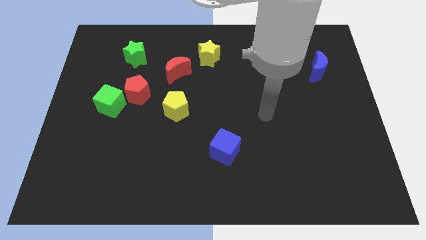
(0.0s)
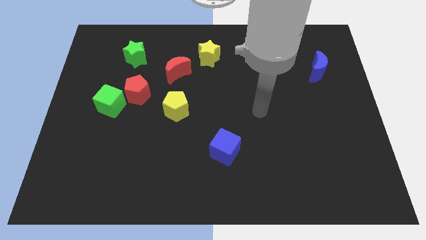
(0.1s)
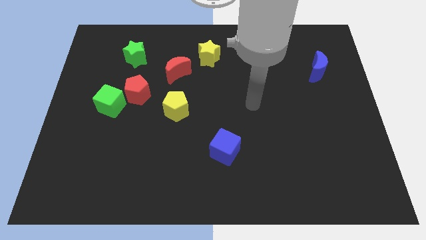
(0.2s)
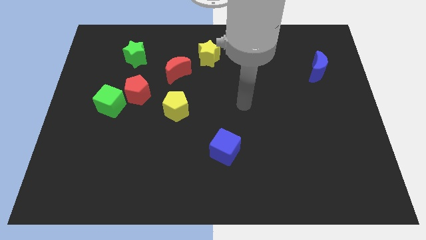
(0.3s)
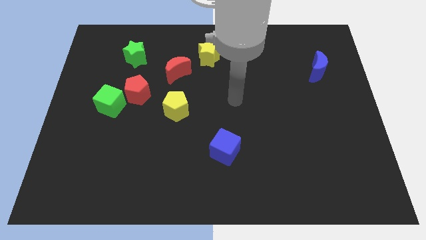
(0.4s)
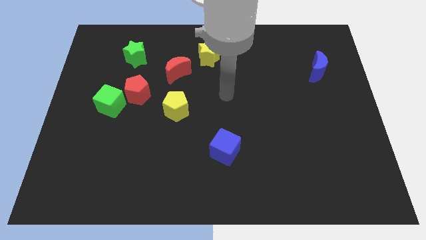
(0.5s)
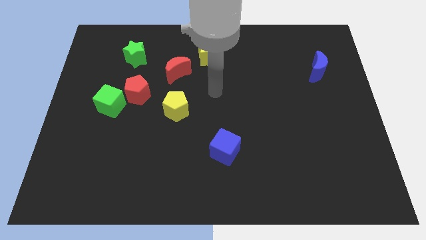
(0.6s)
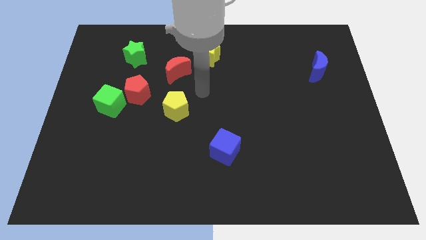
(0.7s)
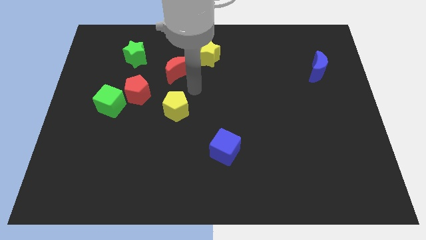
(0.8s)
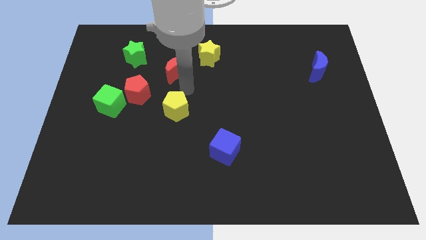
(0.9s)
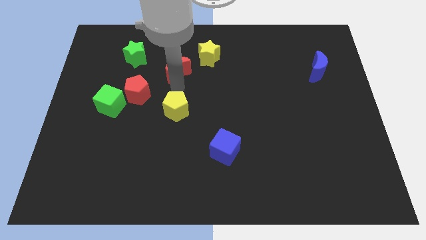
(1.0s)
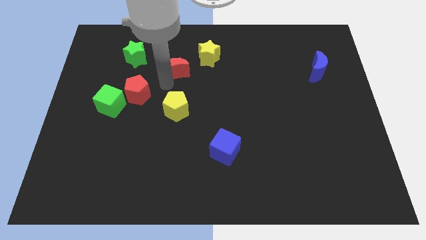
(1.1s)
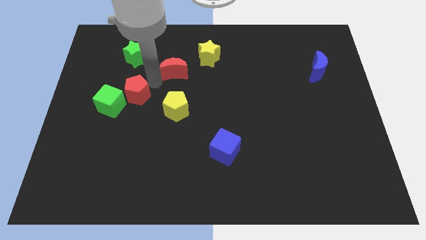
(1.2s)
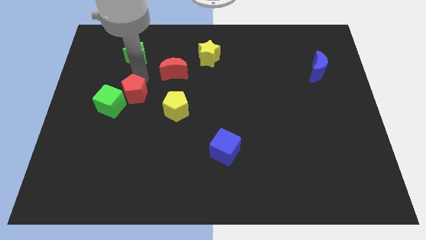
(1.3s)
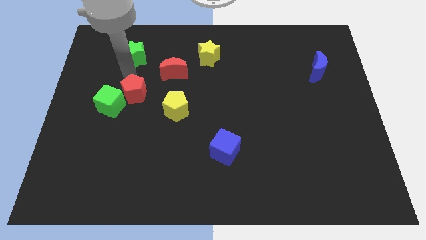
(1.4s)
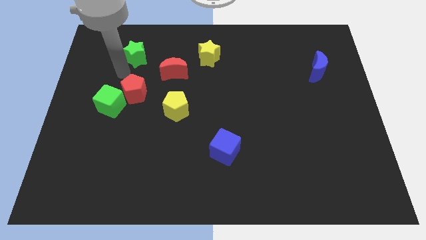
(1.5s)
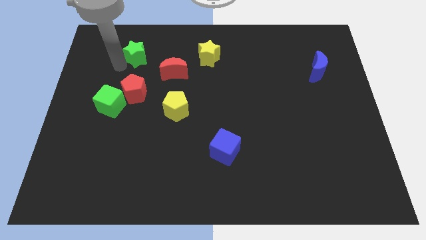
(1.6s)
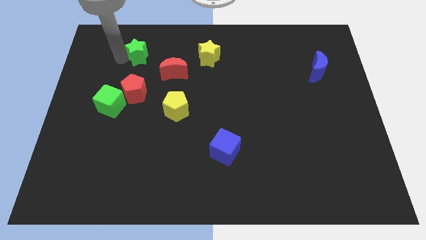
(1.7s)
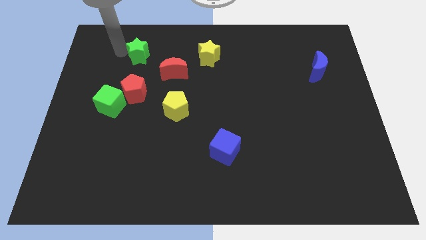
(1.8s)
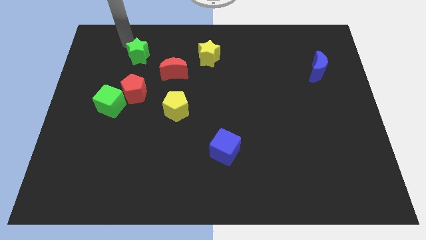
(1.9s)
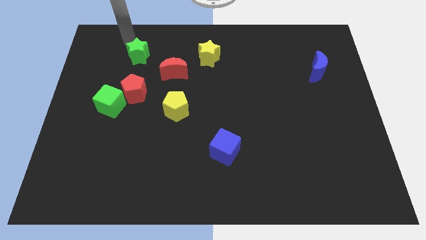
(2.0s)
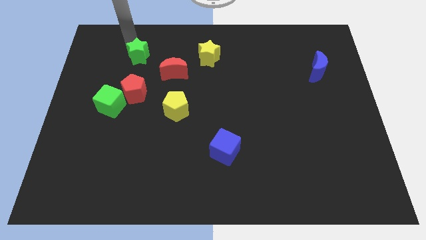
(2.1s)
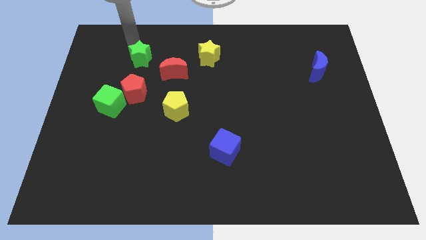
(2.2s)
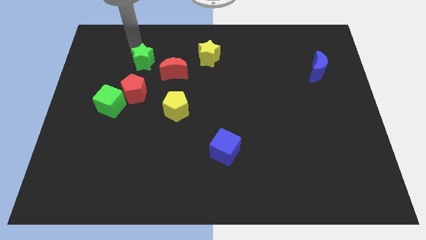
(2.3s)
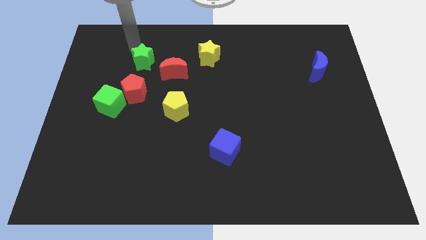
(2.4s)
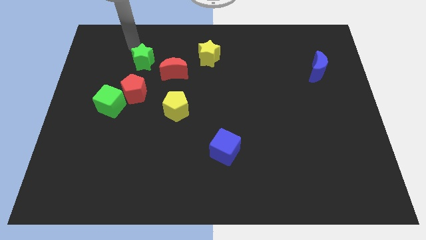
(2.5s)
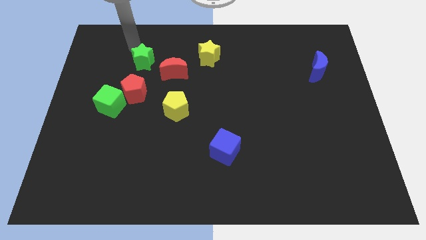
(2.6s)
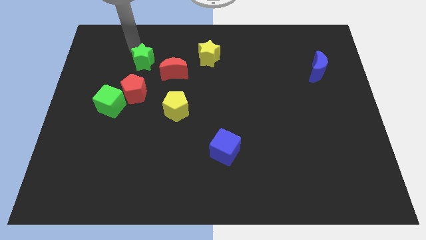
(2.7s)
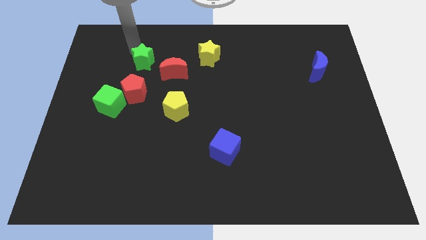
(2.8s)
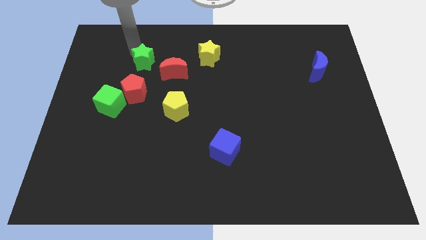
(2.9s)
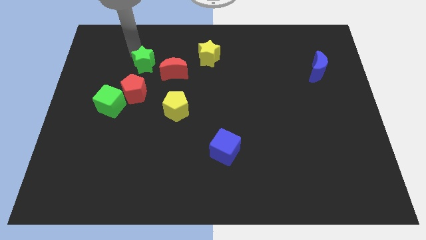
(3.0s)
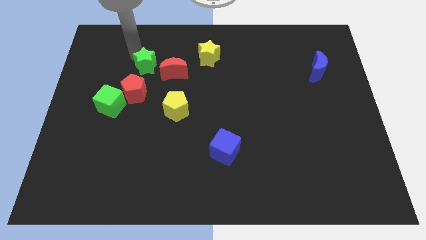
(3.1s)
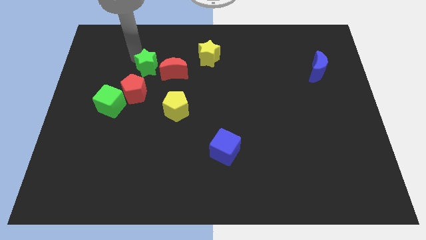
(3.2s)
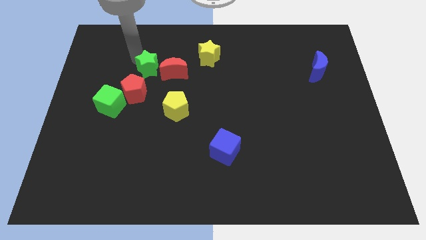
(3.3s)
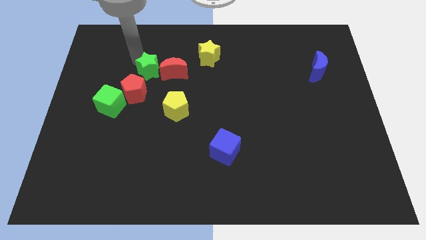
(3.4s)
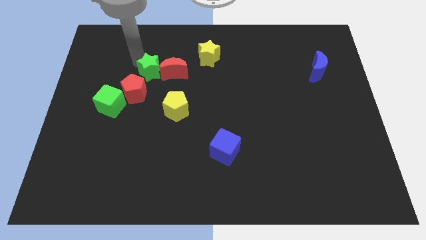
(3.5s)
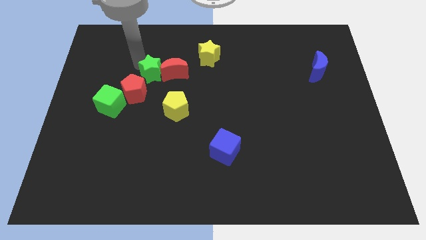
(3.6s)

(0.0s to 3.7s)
move the green star slightly downwards and right

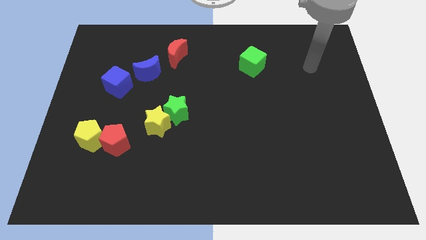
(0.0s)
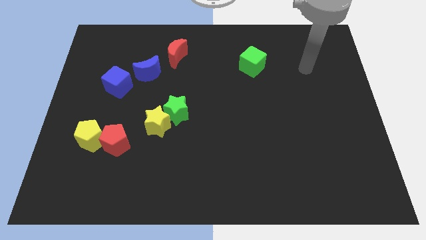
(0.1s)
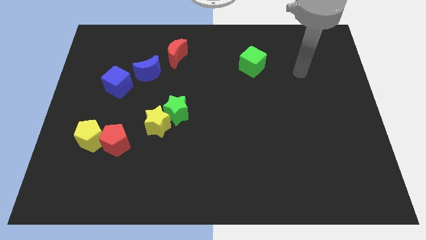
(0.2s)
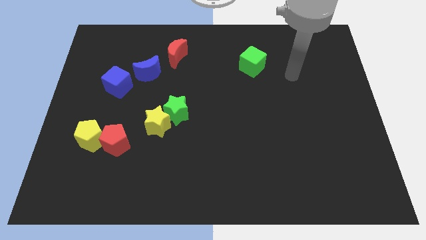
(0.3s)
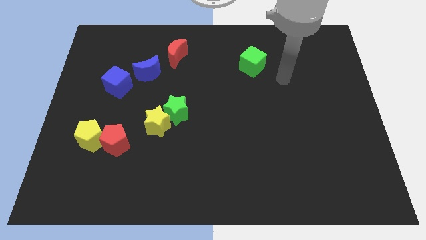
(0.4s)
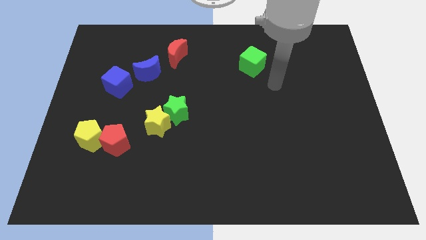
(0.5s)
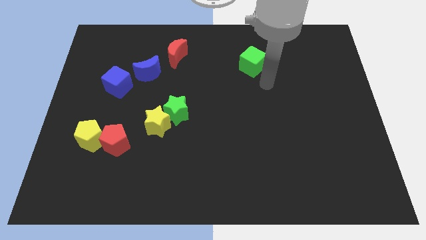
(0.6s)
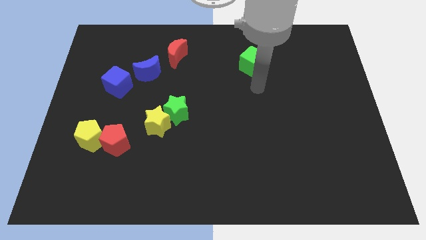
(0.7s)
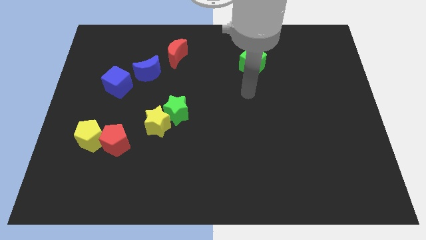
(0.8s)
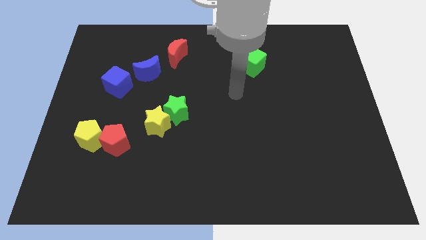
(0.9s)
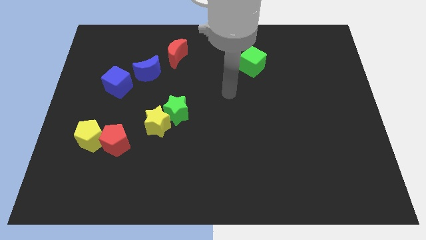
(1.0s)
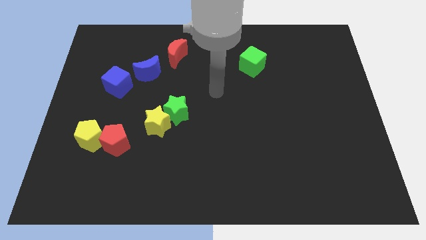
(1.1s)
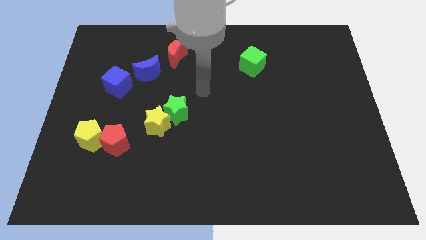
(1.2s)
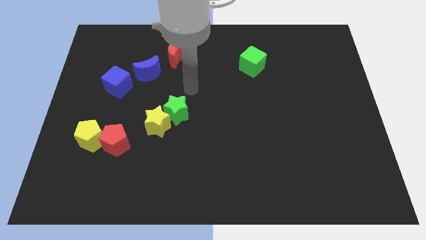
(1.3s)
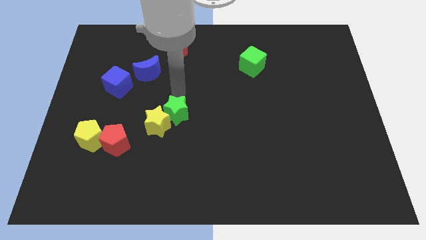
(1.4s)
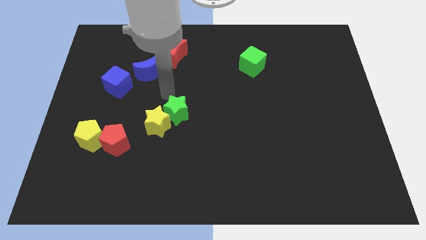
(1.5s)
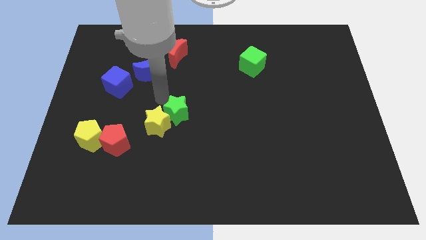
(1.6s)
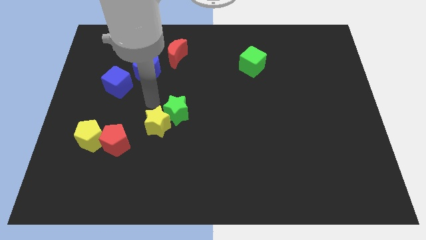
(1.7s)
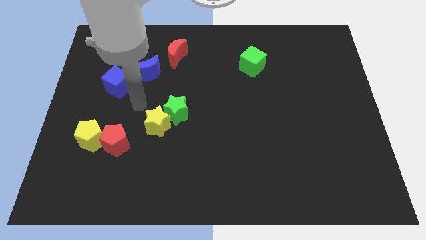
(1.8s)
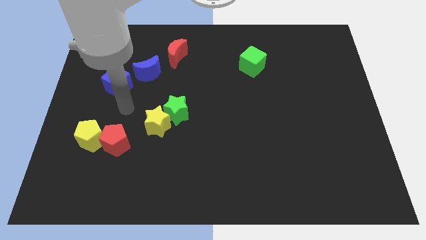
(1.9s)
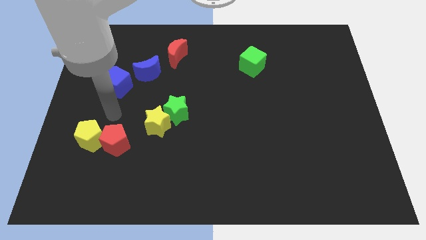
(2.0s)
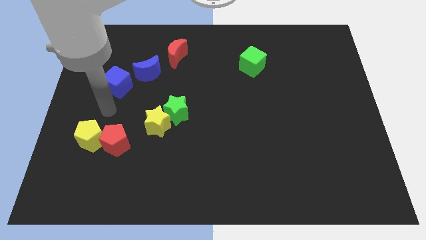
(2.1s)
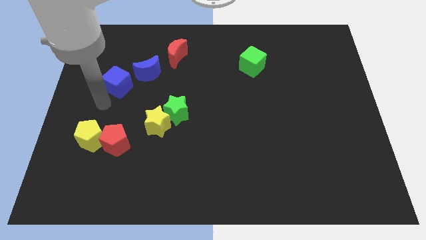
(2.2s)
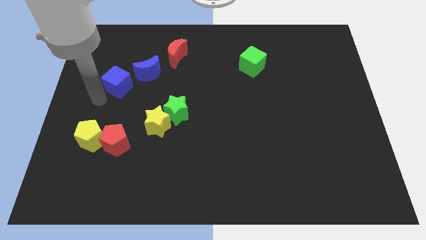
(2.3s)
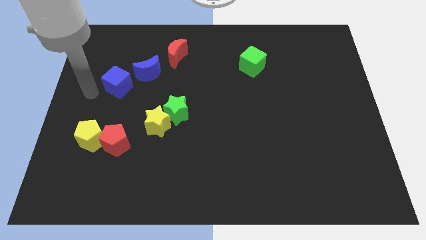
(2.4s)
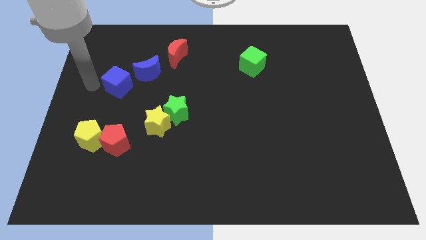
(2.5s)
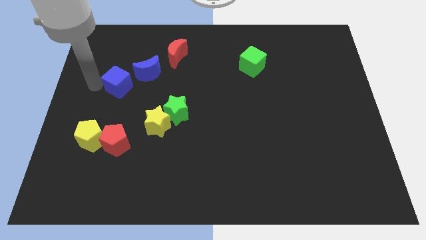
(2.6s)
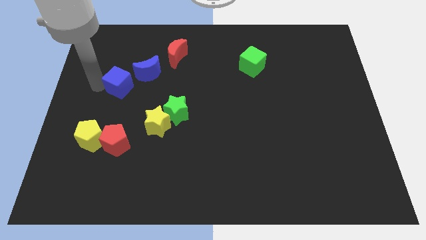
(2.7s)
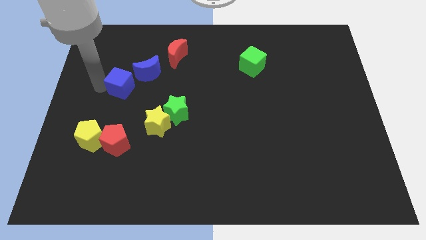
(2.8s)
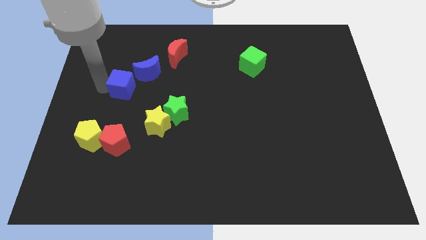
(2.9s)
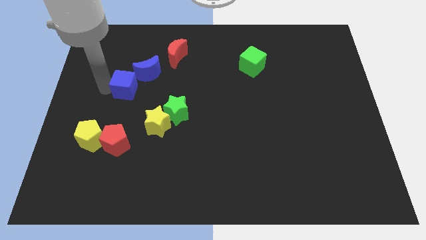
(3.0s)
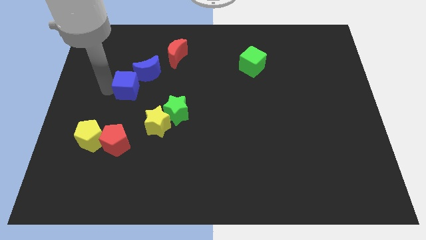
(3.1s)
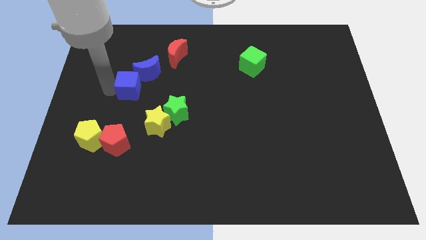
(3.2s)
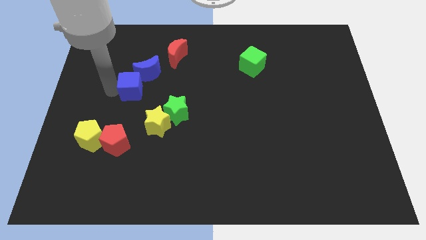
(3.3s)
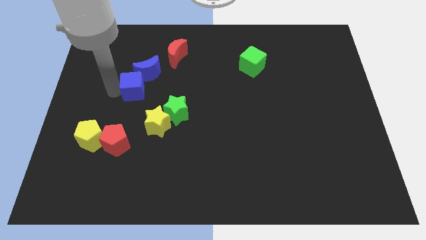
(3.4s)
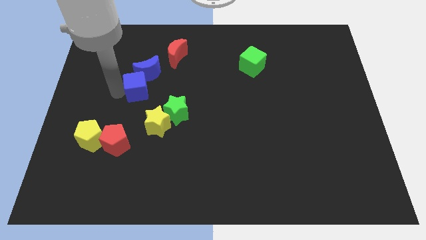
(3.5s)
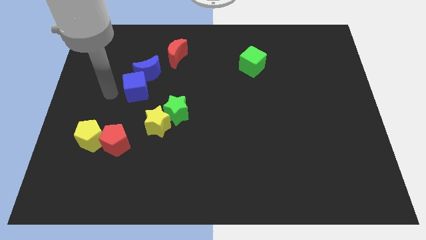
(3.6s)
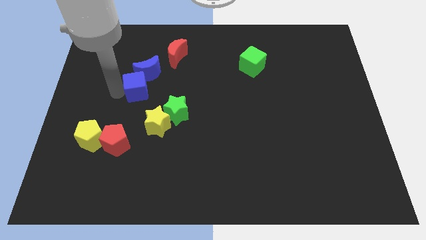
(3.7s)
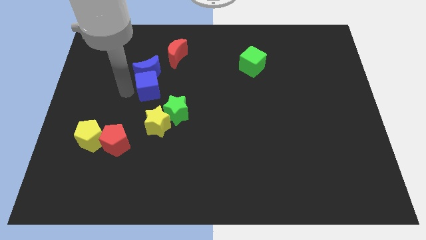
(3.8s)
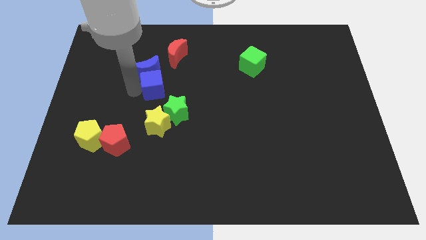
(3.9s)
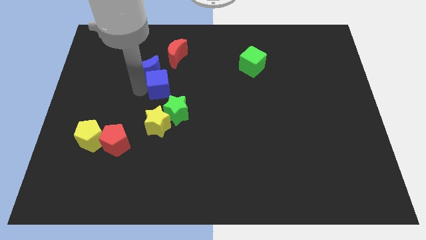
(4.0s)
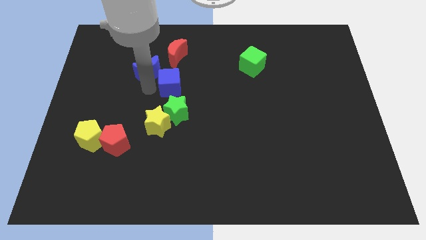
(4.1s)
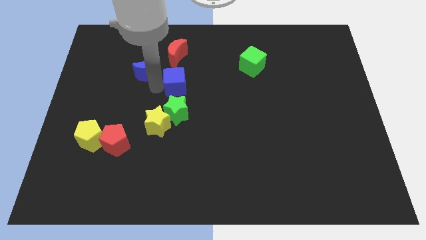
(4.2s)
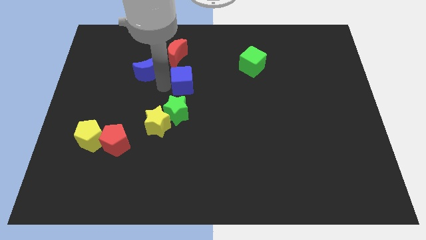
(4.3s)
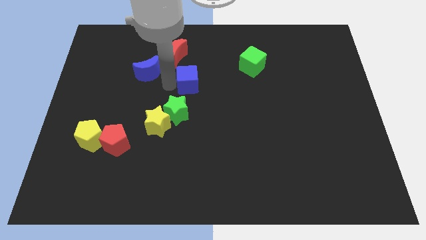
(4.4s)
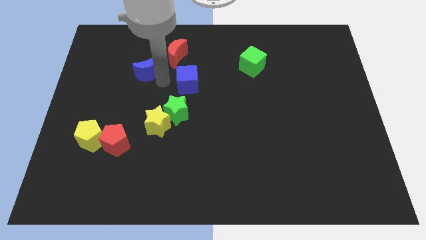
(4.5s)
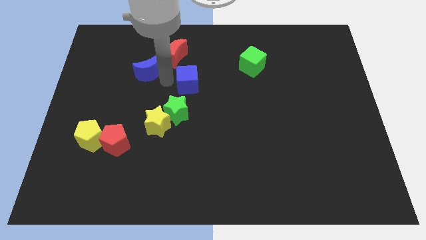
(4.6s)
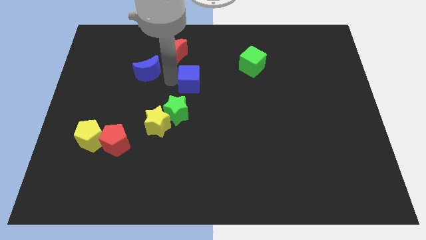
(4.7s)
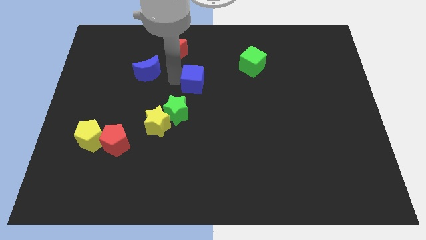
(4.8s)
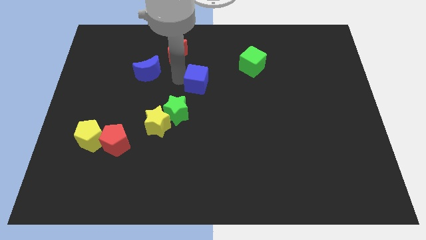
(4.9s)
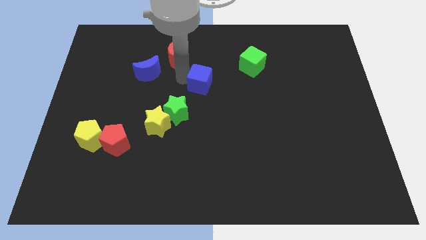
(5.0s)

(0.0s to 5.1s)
push the blue cube right
